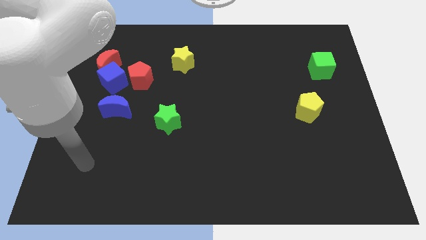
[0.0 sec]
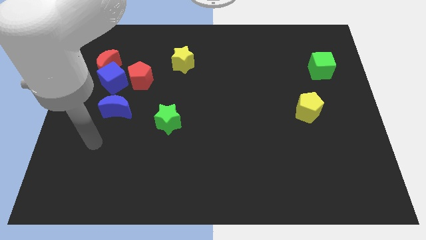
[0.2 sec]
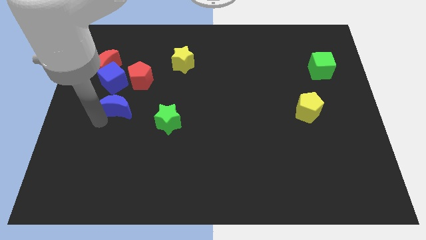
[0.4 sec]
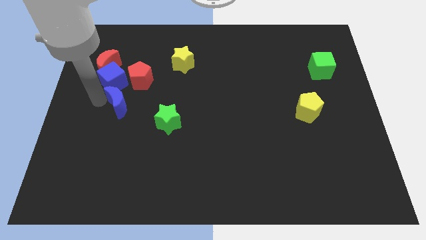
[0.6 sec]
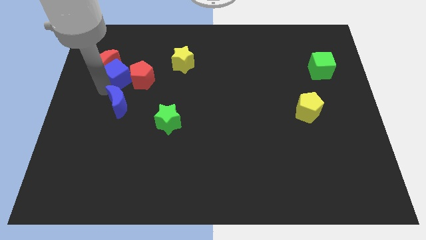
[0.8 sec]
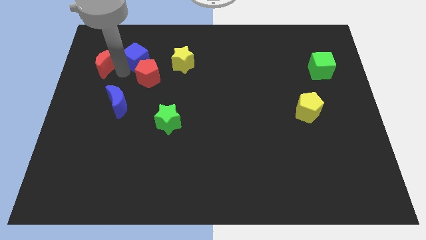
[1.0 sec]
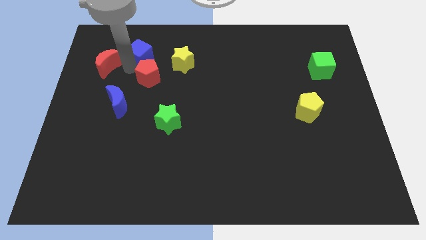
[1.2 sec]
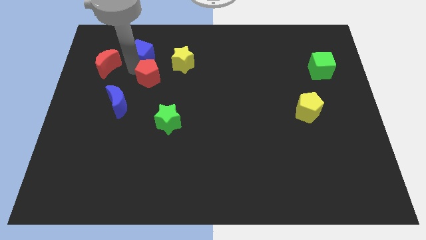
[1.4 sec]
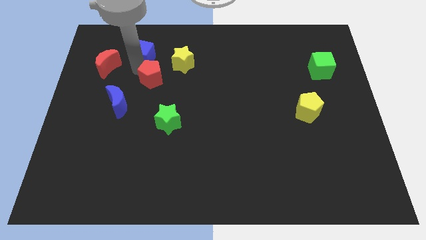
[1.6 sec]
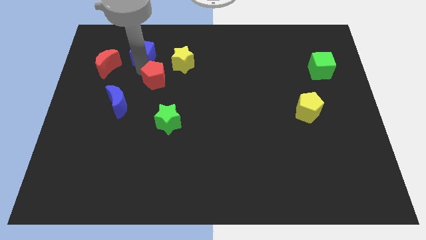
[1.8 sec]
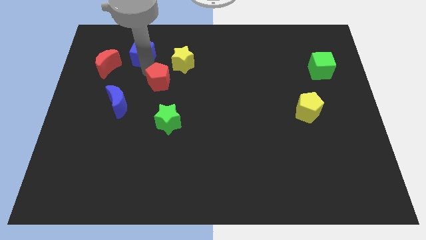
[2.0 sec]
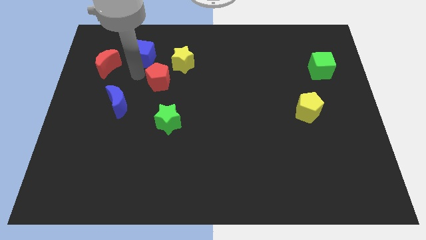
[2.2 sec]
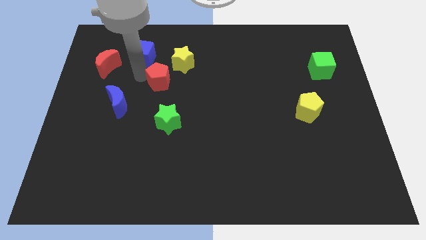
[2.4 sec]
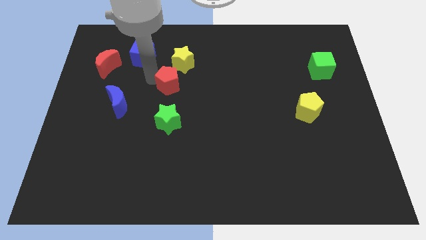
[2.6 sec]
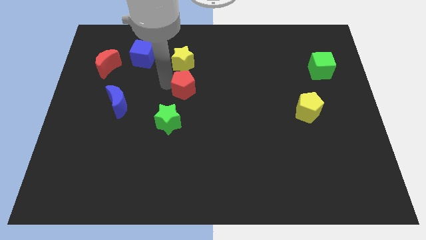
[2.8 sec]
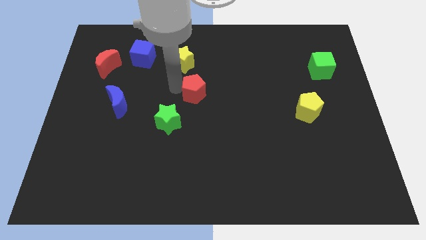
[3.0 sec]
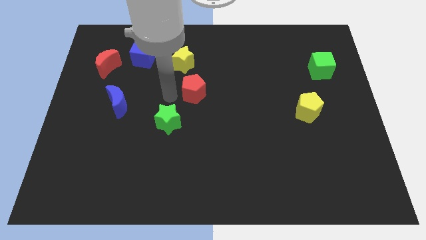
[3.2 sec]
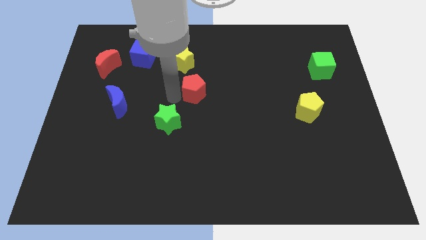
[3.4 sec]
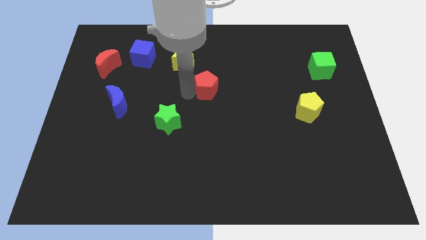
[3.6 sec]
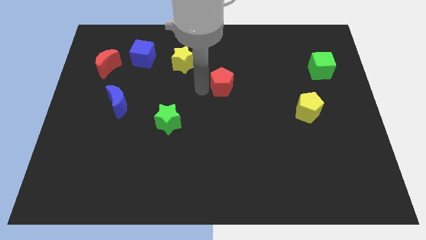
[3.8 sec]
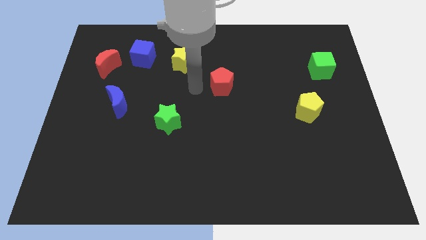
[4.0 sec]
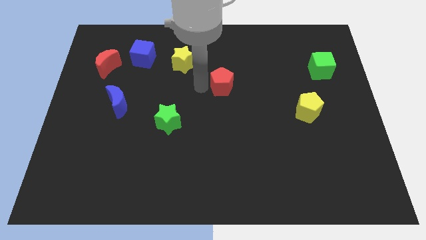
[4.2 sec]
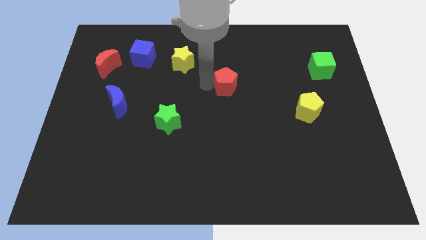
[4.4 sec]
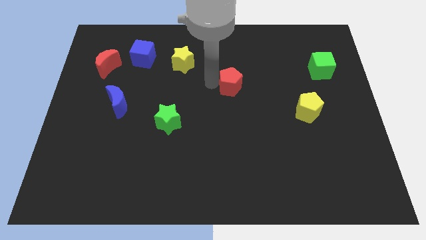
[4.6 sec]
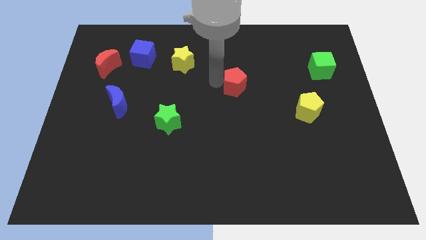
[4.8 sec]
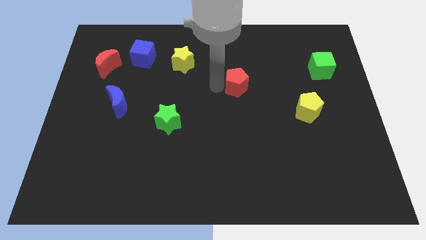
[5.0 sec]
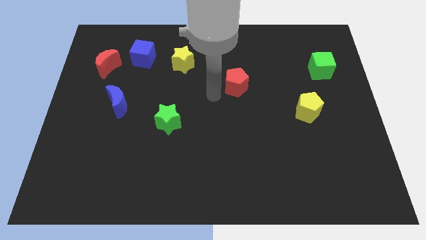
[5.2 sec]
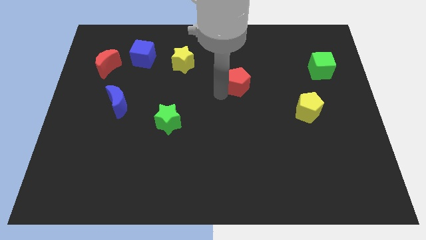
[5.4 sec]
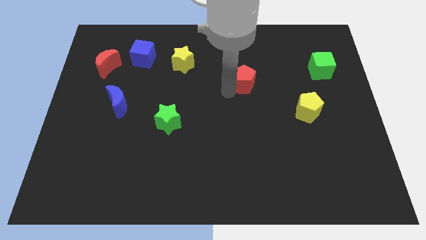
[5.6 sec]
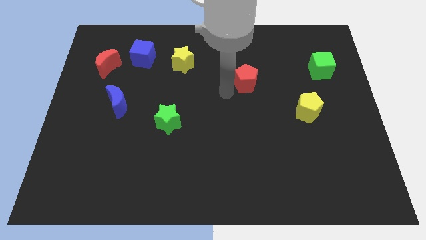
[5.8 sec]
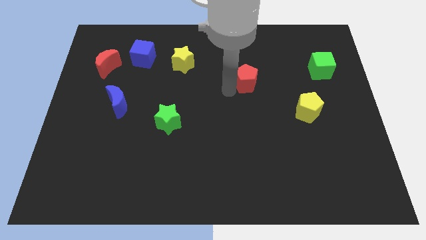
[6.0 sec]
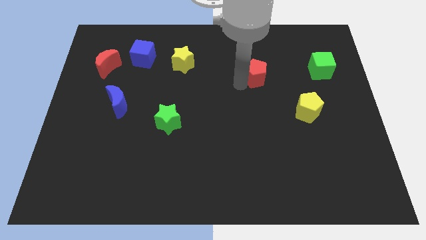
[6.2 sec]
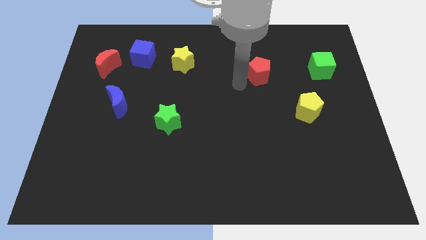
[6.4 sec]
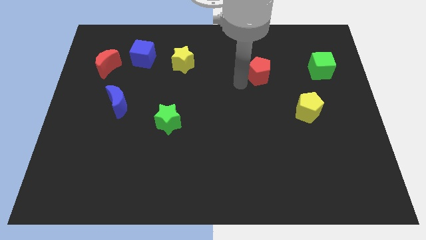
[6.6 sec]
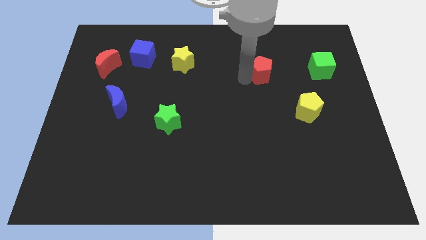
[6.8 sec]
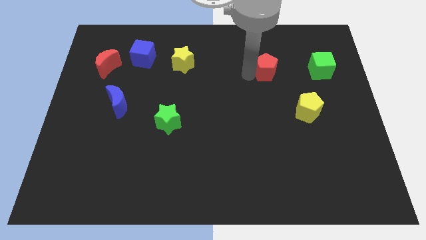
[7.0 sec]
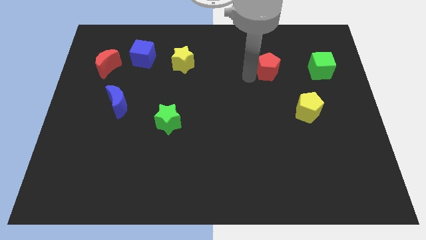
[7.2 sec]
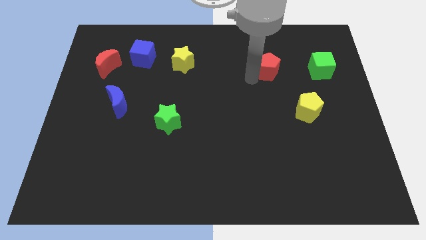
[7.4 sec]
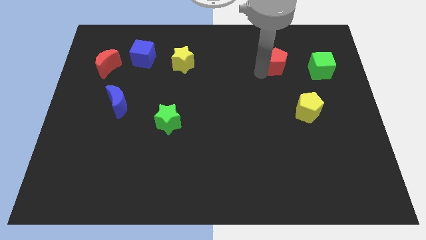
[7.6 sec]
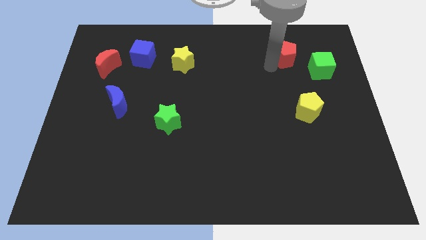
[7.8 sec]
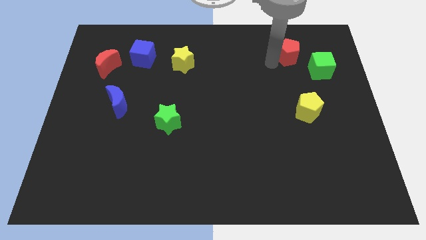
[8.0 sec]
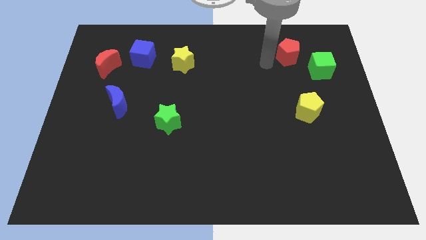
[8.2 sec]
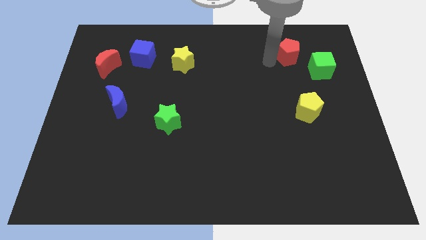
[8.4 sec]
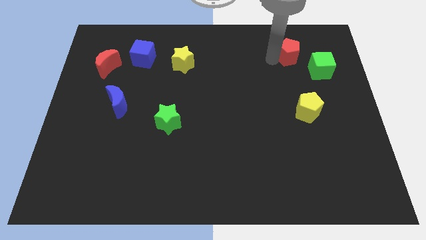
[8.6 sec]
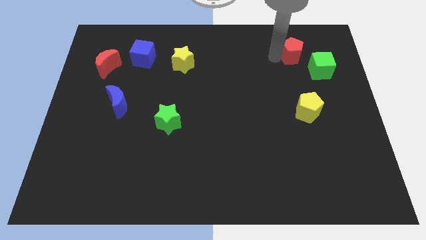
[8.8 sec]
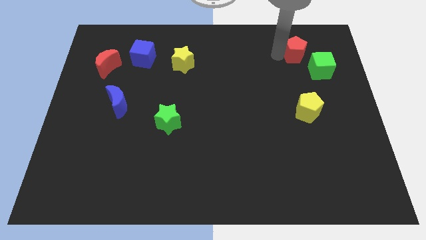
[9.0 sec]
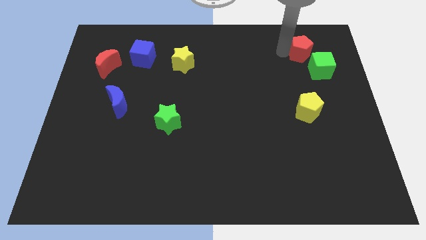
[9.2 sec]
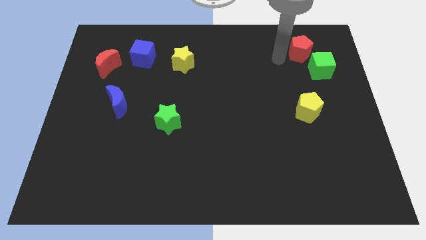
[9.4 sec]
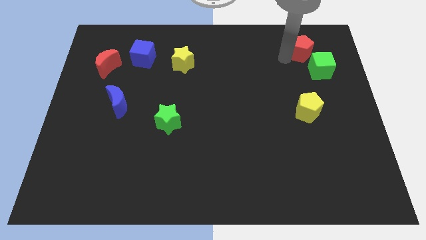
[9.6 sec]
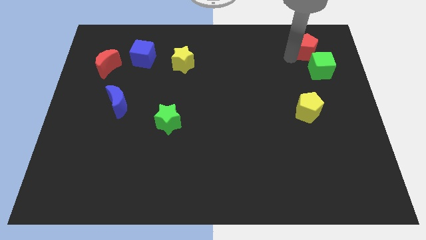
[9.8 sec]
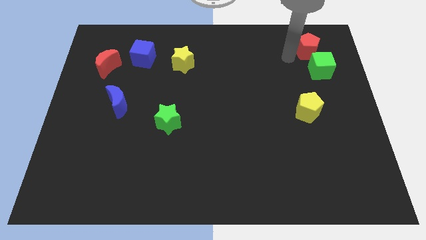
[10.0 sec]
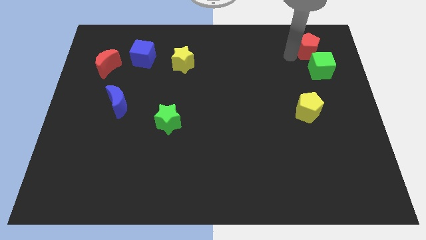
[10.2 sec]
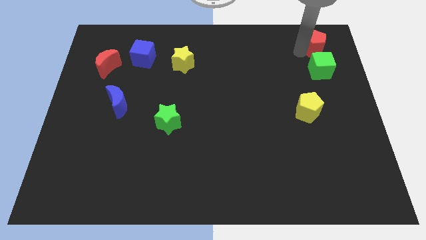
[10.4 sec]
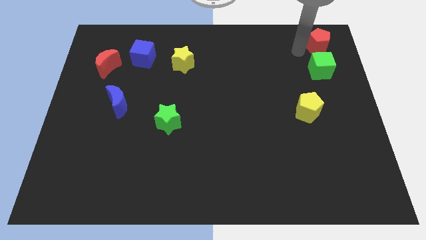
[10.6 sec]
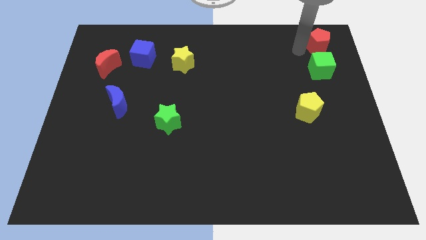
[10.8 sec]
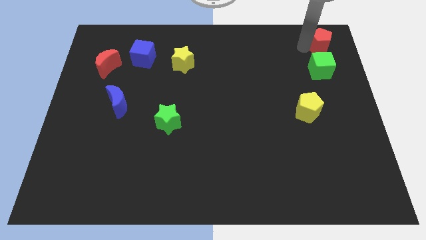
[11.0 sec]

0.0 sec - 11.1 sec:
push the red pentagon to the top right
